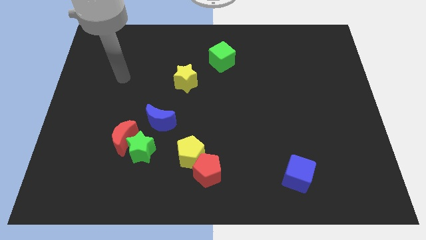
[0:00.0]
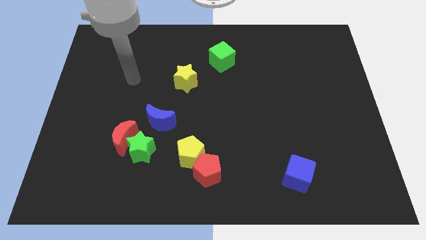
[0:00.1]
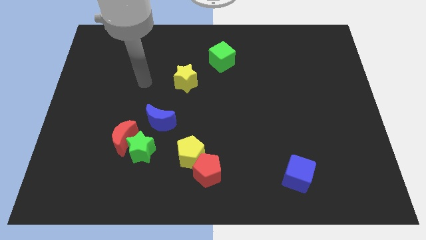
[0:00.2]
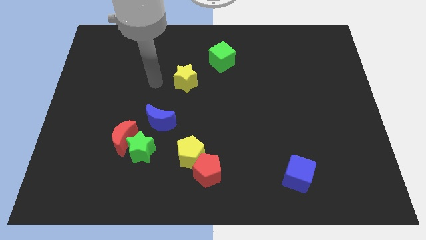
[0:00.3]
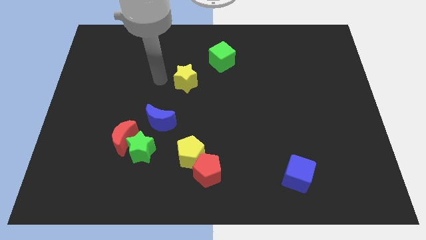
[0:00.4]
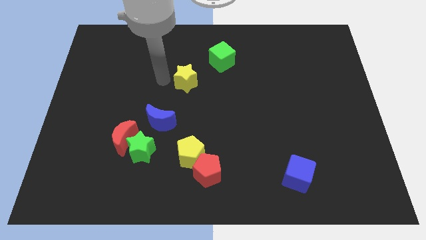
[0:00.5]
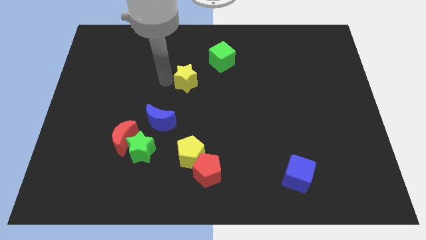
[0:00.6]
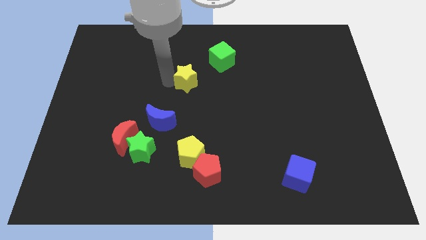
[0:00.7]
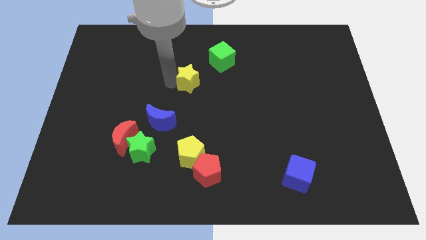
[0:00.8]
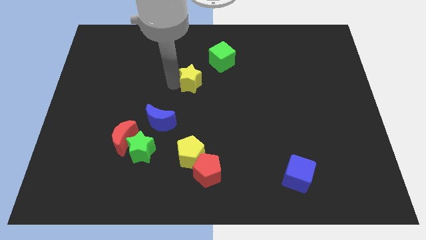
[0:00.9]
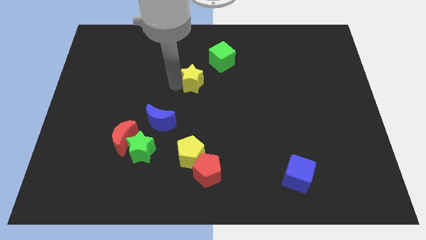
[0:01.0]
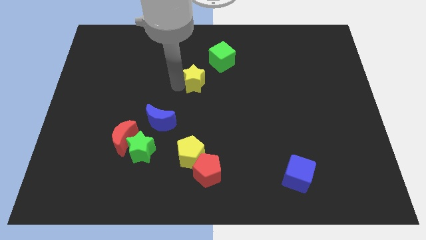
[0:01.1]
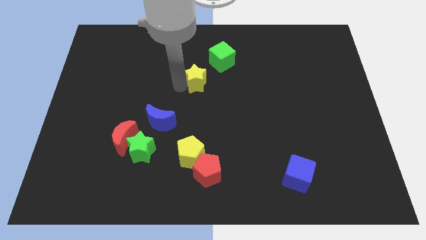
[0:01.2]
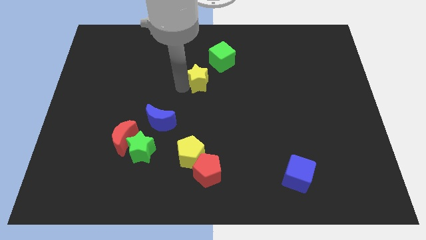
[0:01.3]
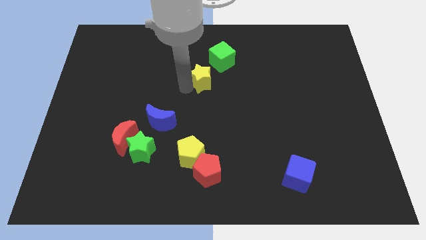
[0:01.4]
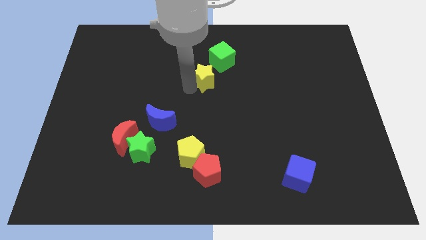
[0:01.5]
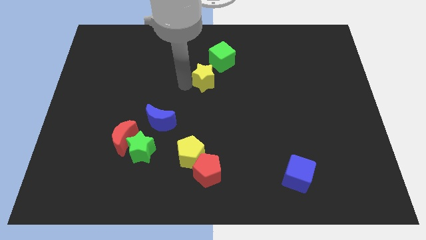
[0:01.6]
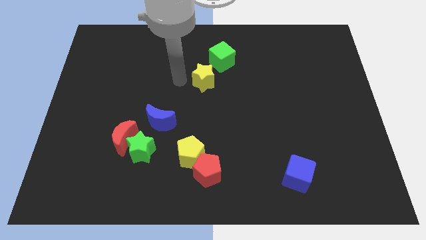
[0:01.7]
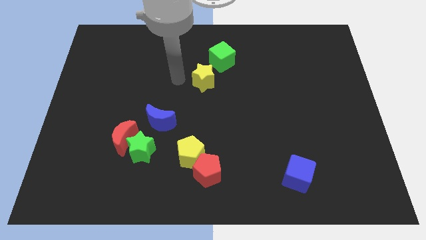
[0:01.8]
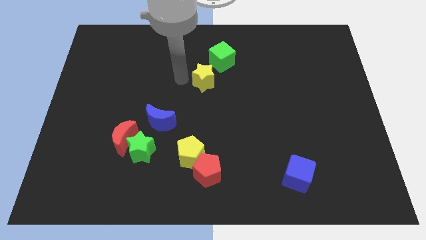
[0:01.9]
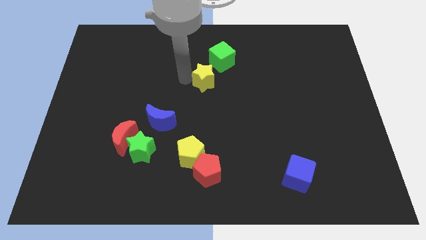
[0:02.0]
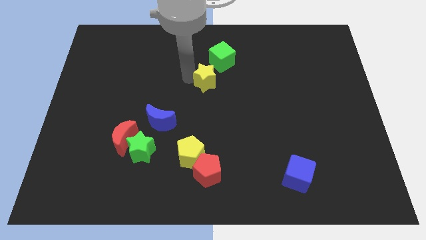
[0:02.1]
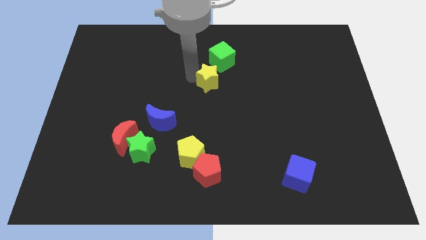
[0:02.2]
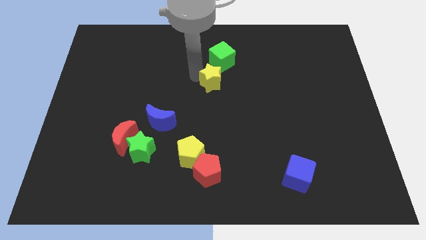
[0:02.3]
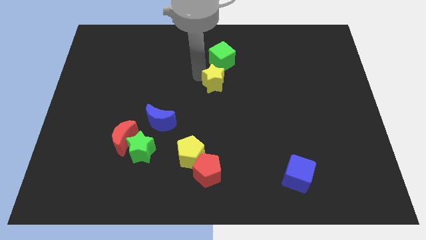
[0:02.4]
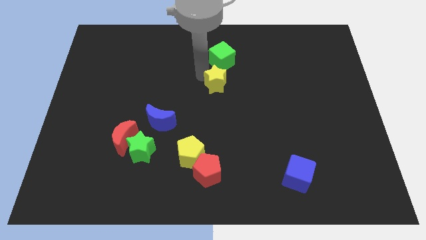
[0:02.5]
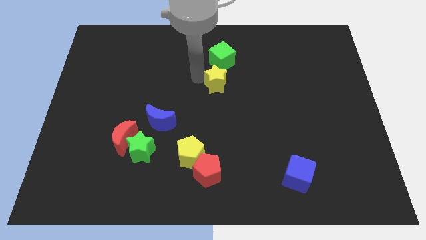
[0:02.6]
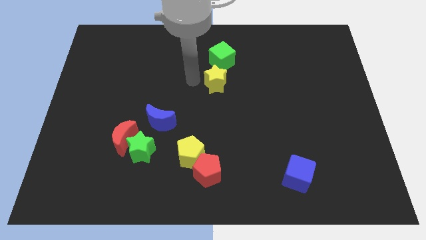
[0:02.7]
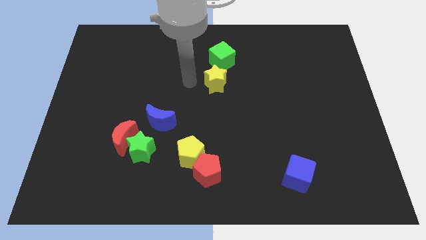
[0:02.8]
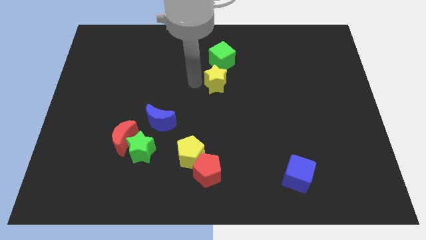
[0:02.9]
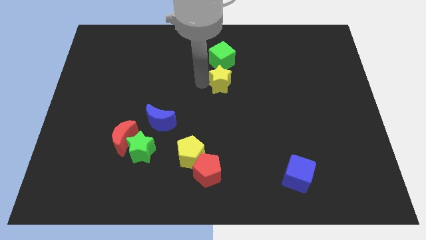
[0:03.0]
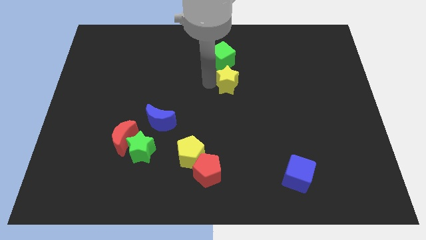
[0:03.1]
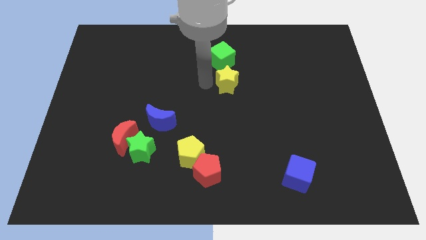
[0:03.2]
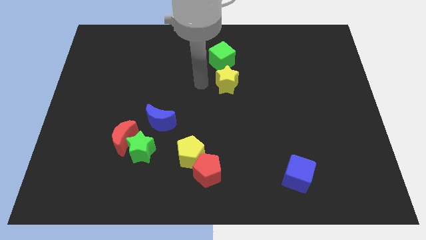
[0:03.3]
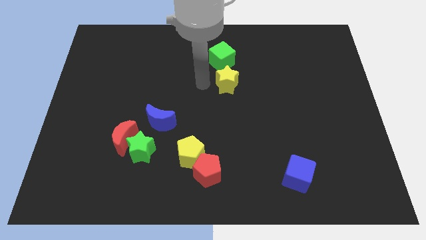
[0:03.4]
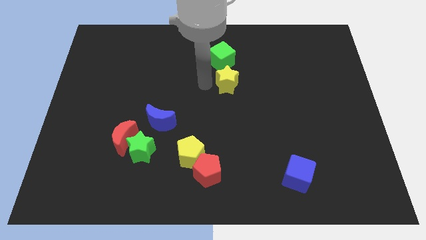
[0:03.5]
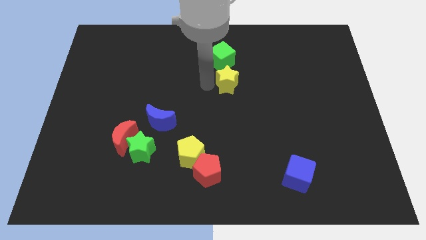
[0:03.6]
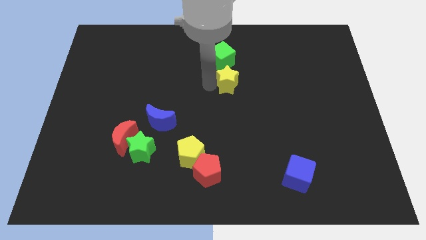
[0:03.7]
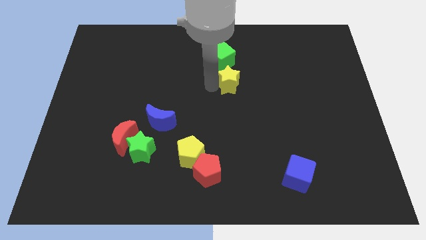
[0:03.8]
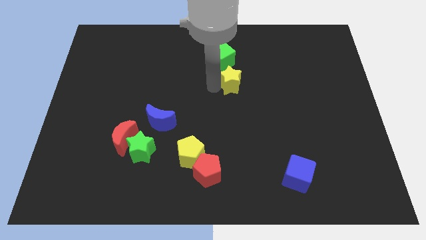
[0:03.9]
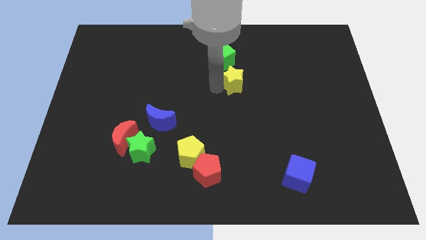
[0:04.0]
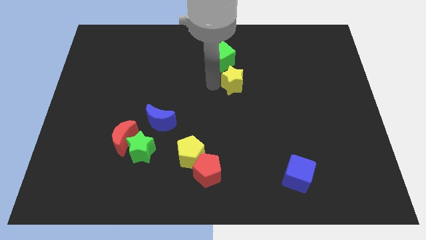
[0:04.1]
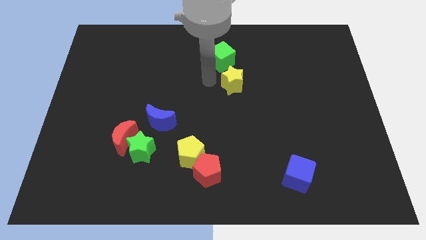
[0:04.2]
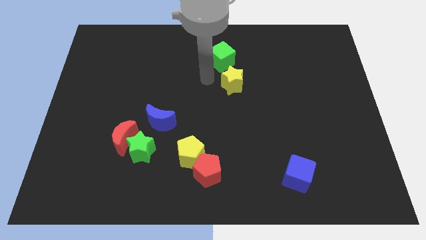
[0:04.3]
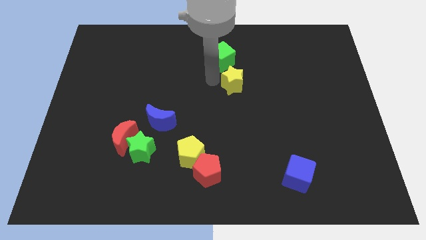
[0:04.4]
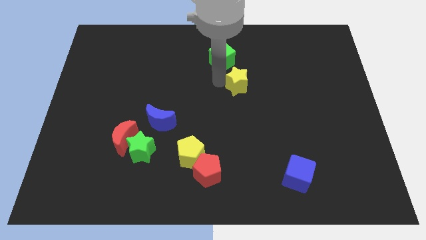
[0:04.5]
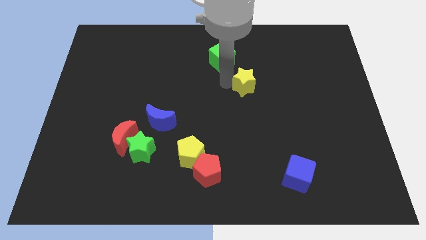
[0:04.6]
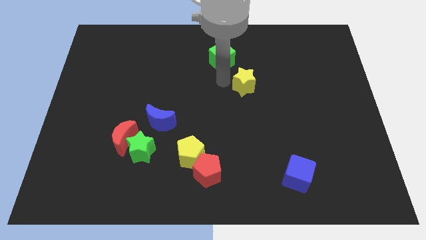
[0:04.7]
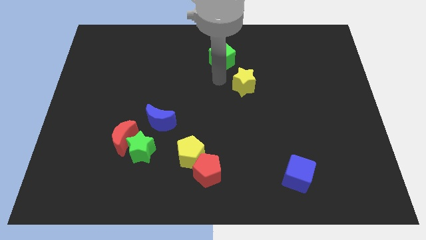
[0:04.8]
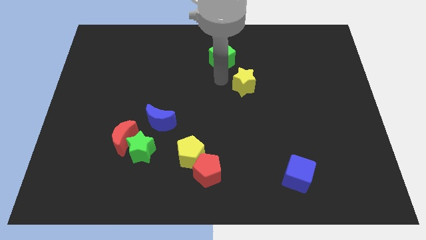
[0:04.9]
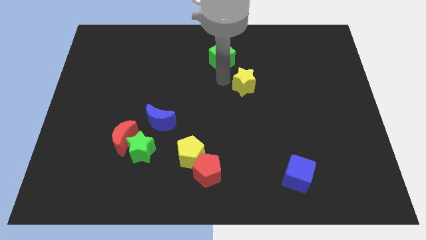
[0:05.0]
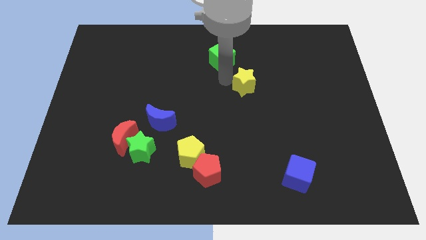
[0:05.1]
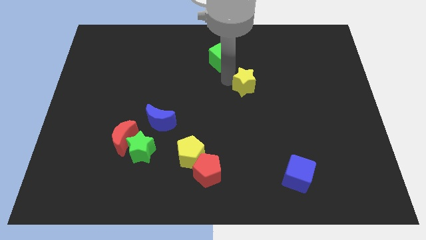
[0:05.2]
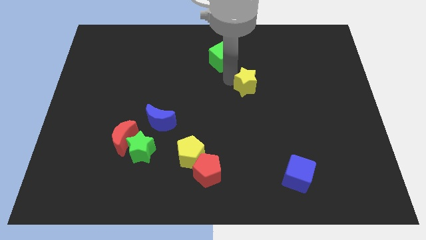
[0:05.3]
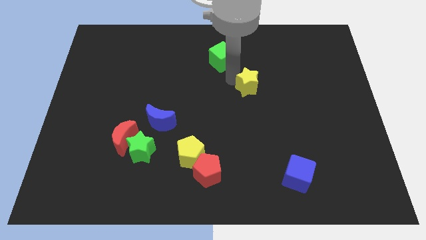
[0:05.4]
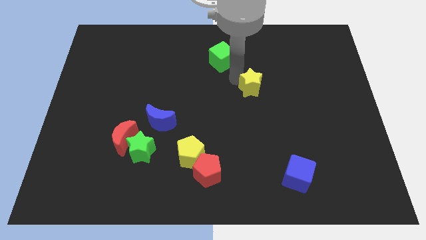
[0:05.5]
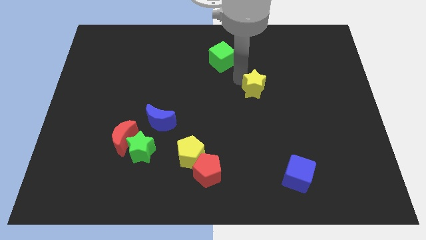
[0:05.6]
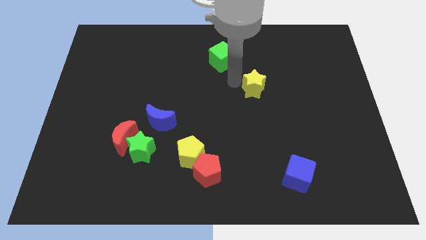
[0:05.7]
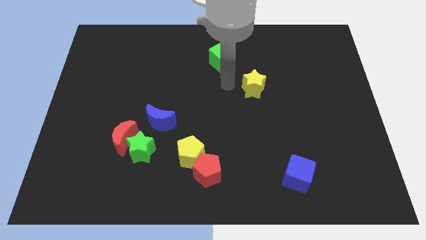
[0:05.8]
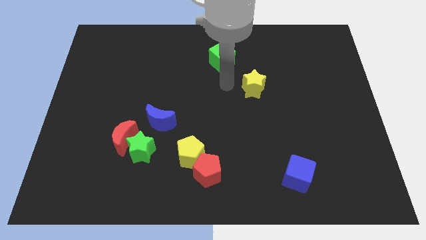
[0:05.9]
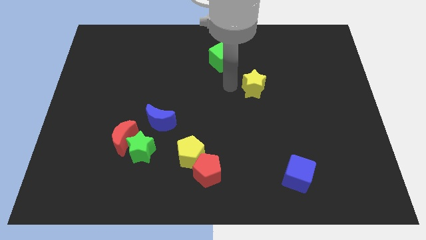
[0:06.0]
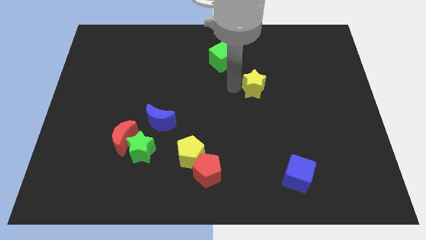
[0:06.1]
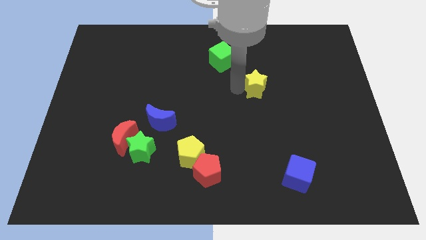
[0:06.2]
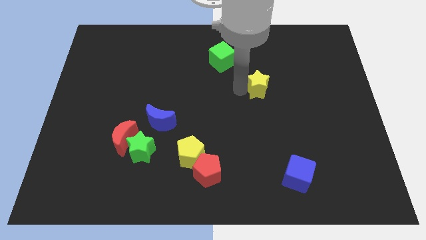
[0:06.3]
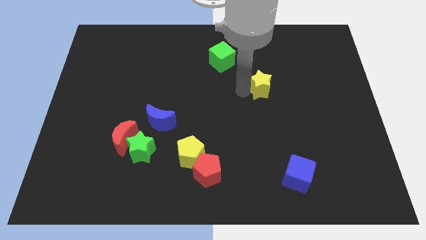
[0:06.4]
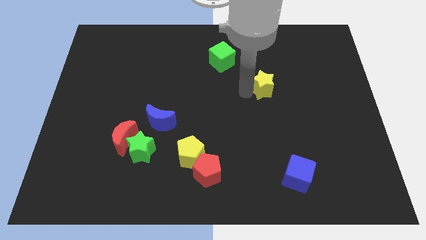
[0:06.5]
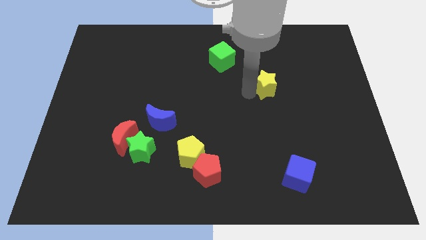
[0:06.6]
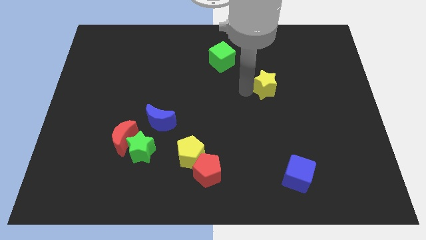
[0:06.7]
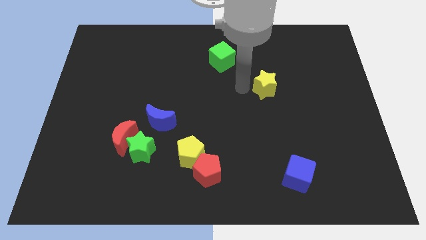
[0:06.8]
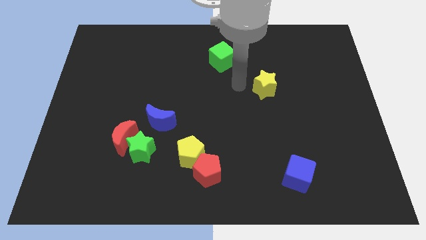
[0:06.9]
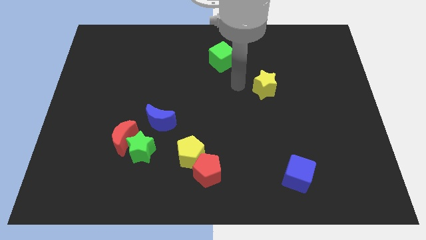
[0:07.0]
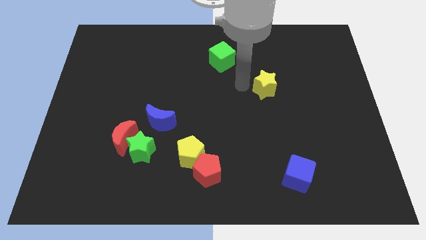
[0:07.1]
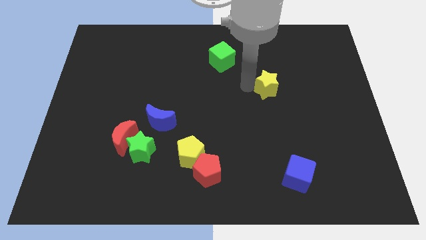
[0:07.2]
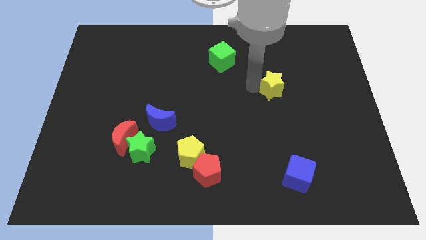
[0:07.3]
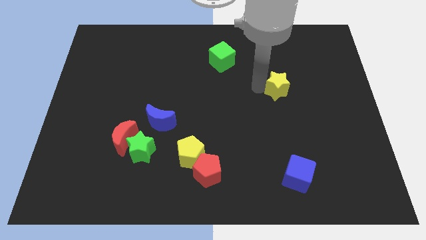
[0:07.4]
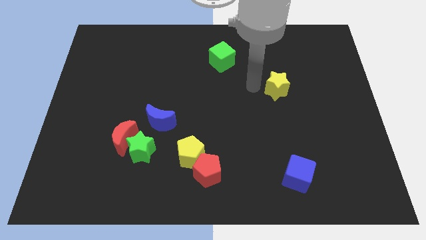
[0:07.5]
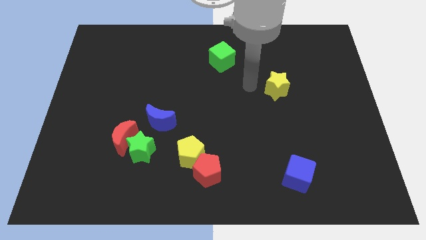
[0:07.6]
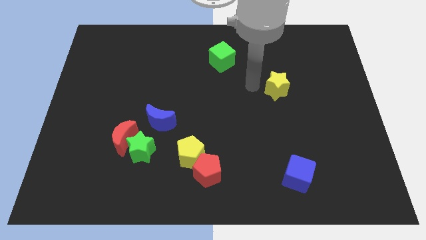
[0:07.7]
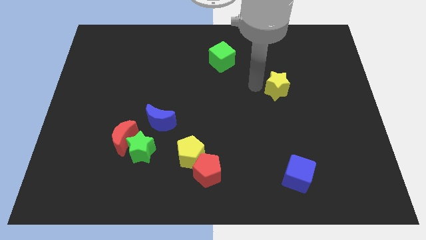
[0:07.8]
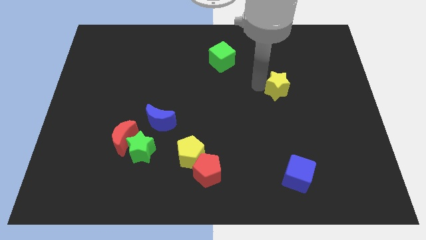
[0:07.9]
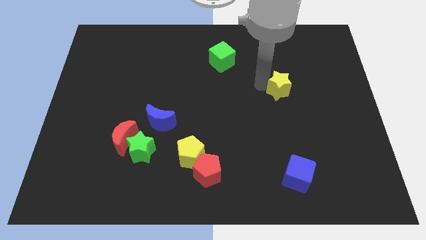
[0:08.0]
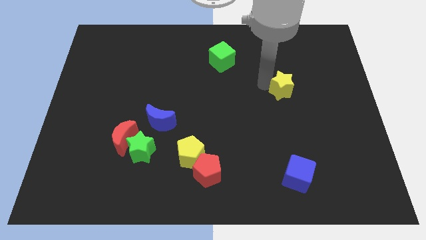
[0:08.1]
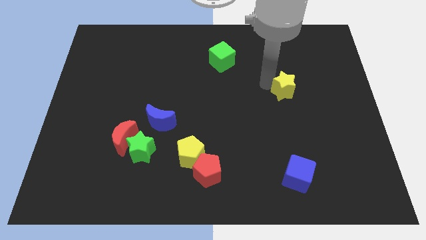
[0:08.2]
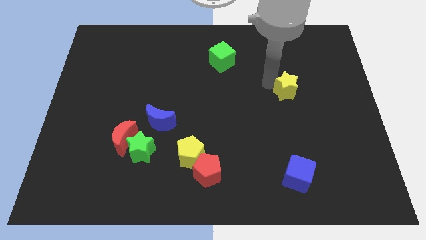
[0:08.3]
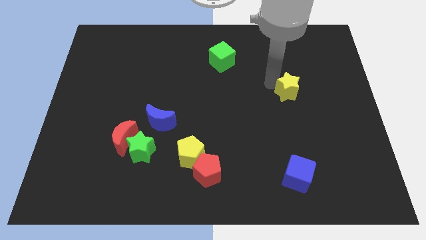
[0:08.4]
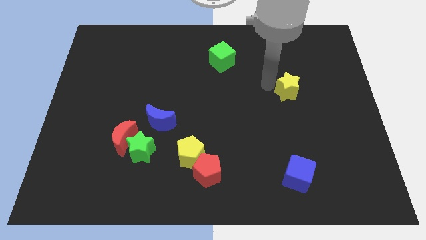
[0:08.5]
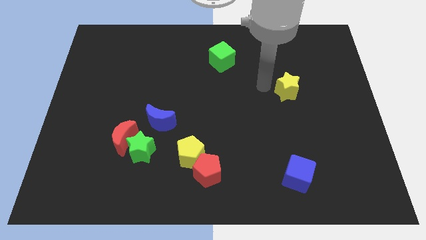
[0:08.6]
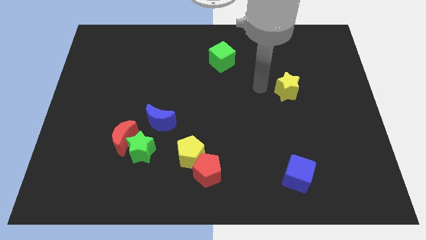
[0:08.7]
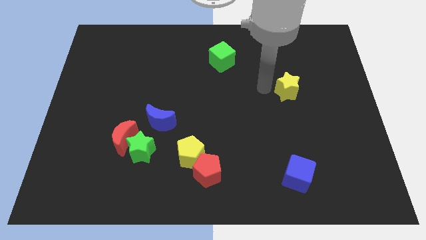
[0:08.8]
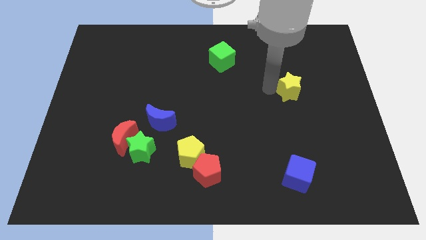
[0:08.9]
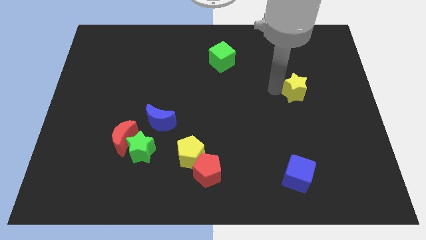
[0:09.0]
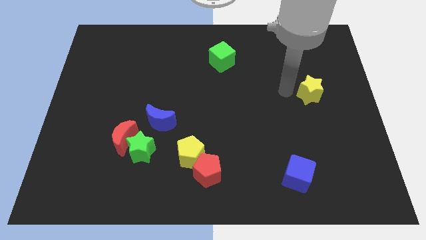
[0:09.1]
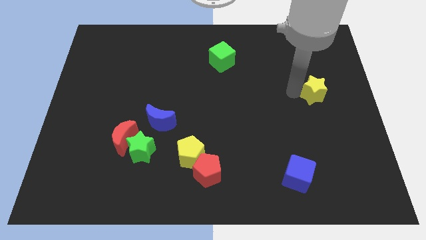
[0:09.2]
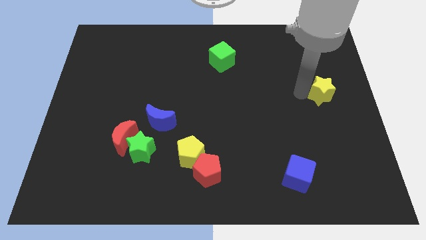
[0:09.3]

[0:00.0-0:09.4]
put the yellow star to the right side of the board
